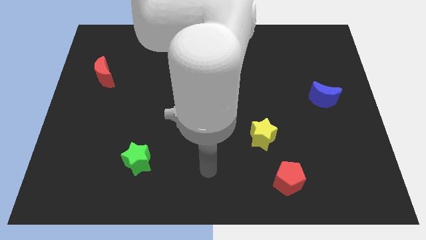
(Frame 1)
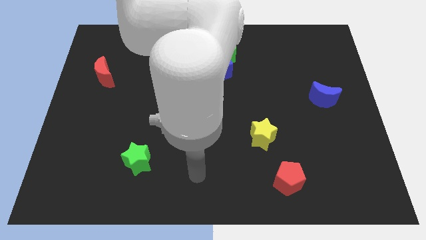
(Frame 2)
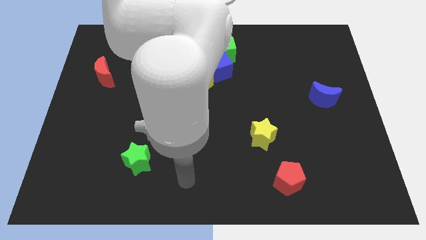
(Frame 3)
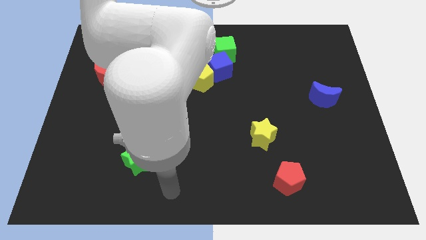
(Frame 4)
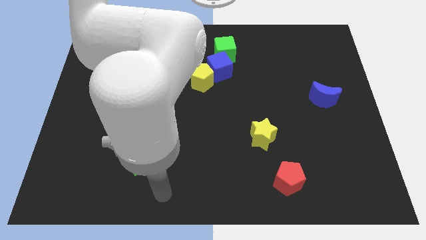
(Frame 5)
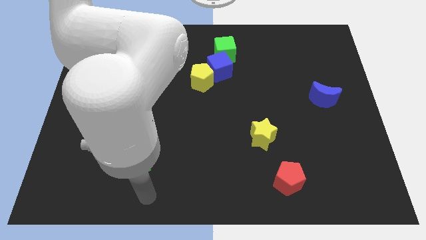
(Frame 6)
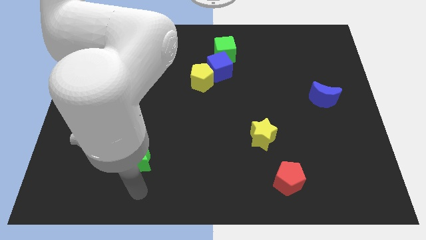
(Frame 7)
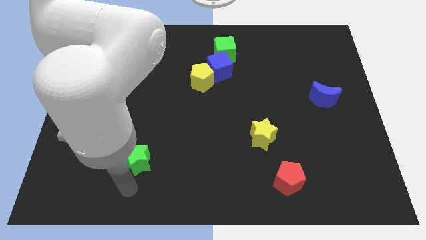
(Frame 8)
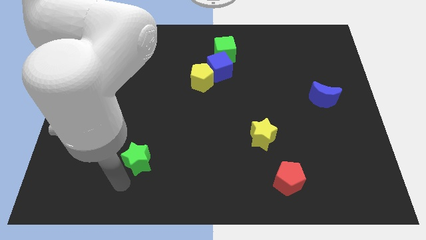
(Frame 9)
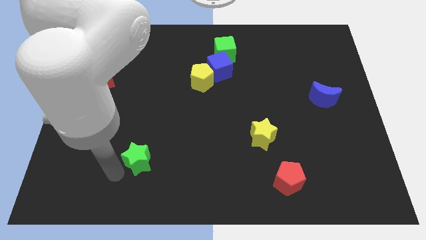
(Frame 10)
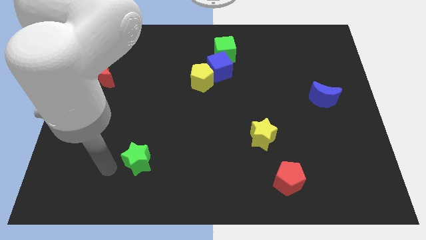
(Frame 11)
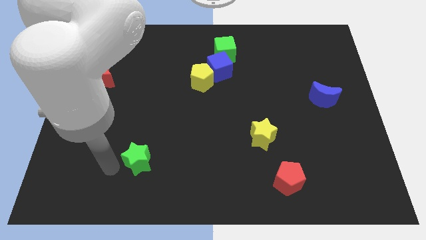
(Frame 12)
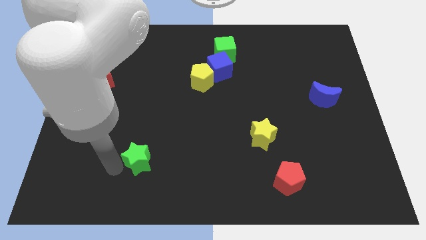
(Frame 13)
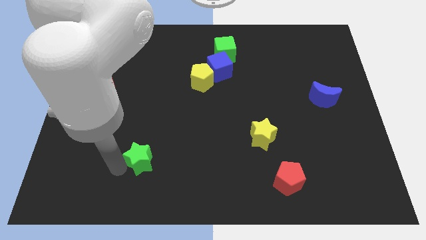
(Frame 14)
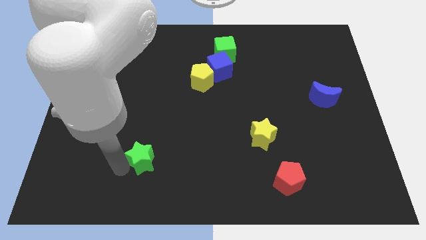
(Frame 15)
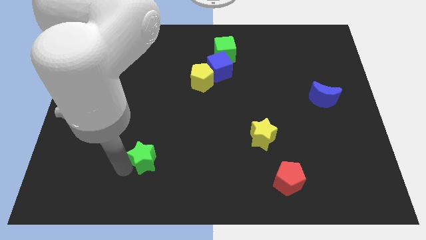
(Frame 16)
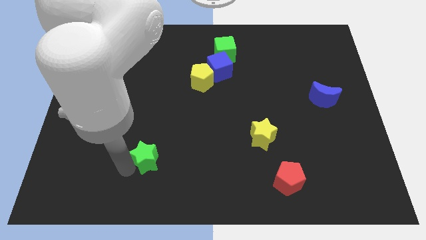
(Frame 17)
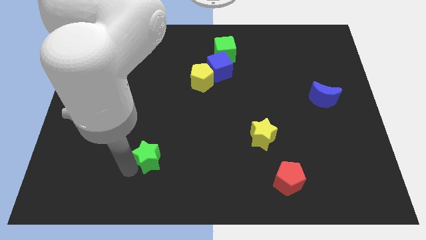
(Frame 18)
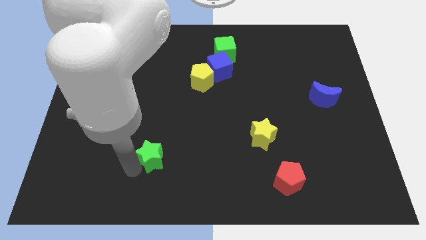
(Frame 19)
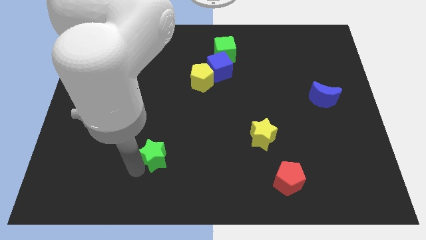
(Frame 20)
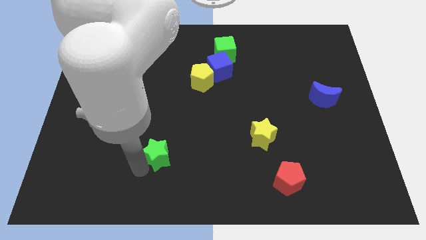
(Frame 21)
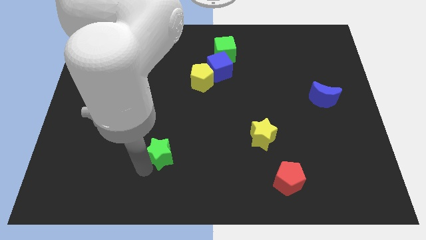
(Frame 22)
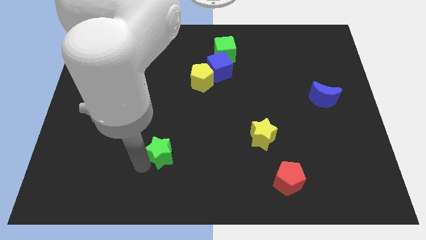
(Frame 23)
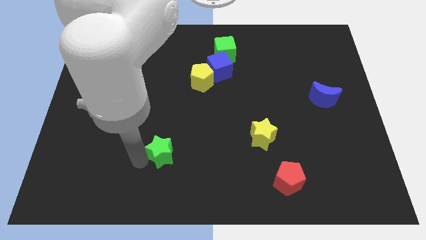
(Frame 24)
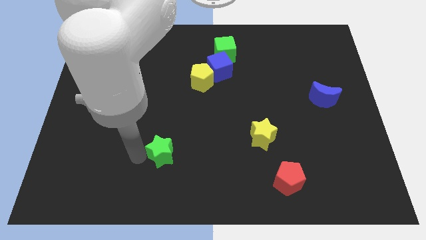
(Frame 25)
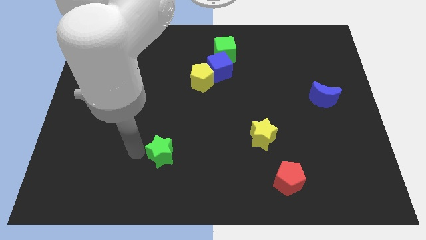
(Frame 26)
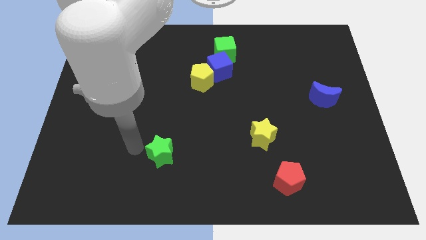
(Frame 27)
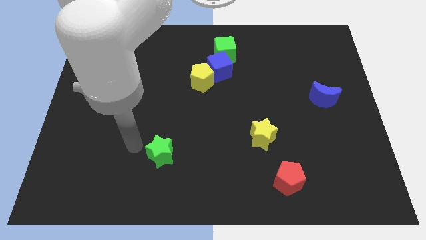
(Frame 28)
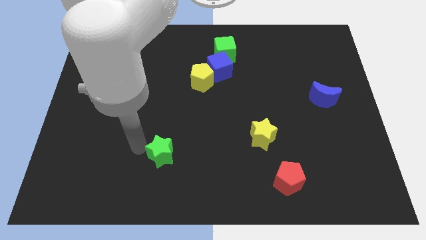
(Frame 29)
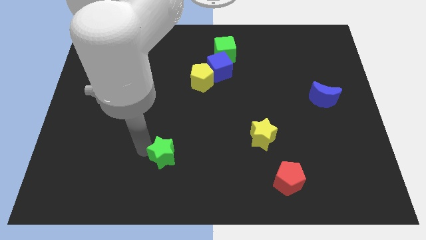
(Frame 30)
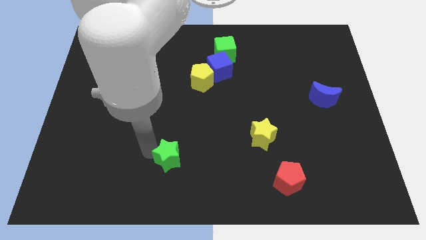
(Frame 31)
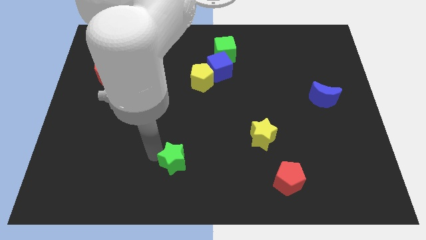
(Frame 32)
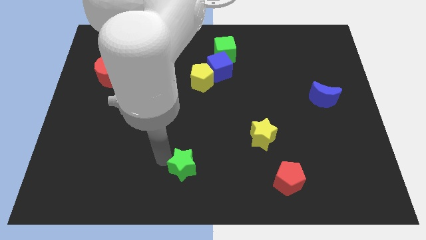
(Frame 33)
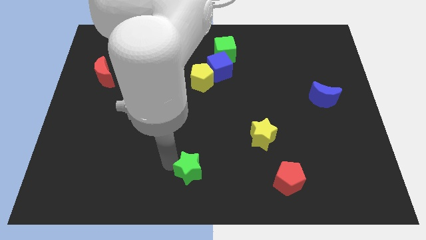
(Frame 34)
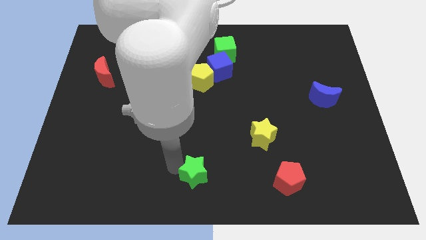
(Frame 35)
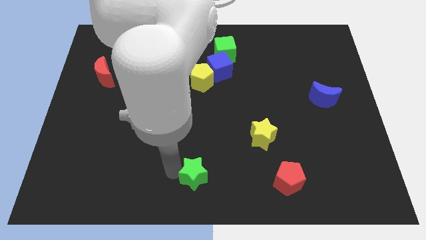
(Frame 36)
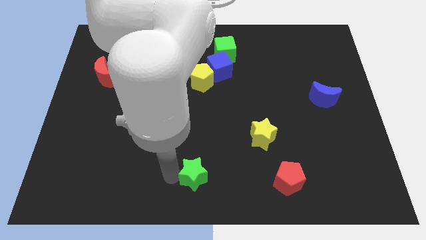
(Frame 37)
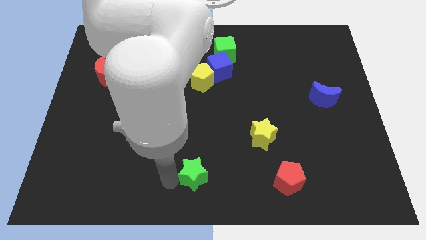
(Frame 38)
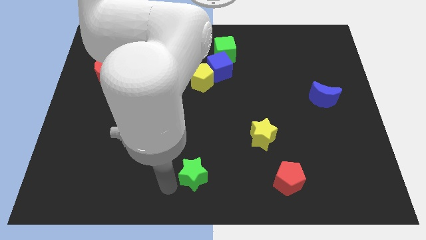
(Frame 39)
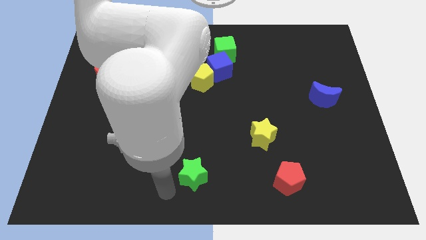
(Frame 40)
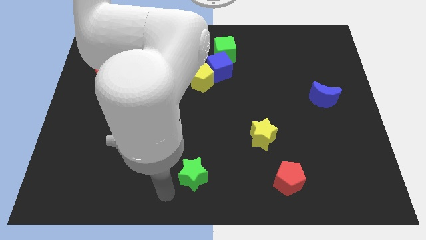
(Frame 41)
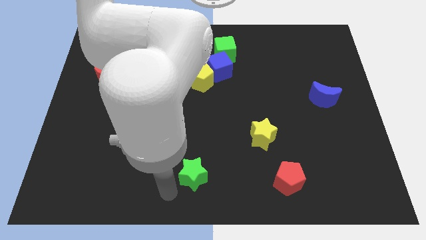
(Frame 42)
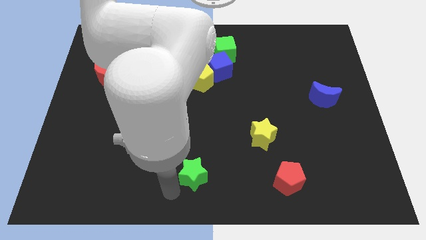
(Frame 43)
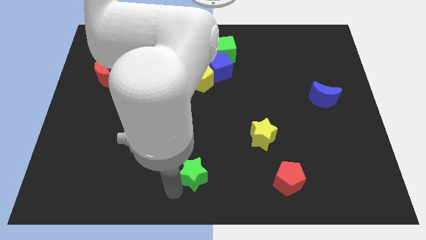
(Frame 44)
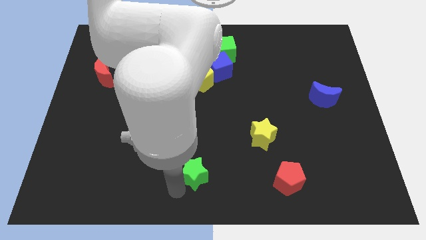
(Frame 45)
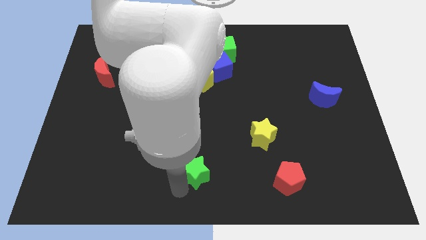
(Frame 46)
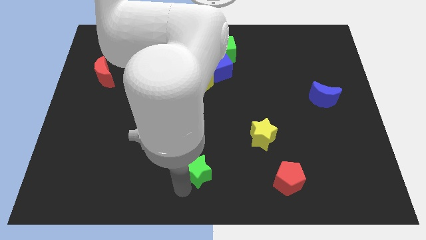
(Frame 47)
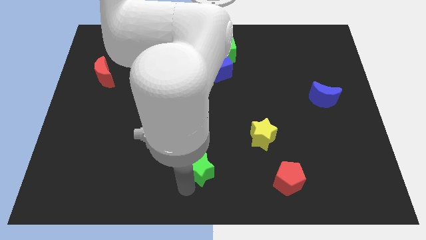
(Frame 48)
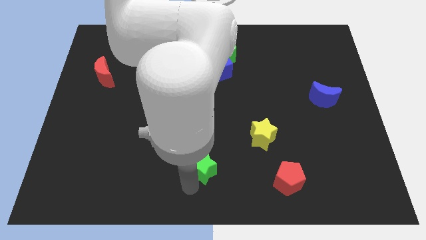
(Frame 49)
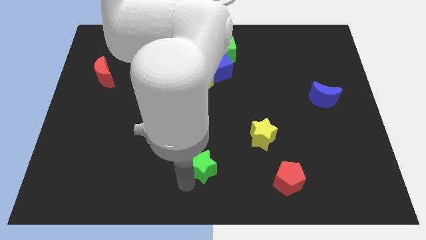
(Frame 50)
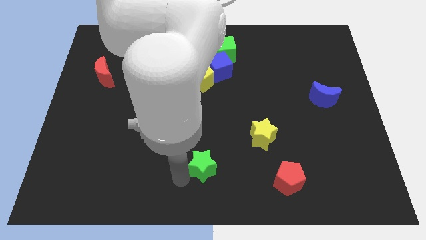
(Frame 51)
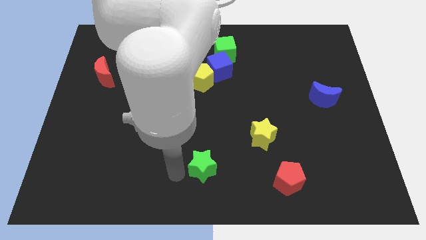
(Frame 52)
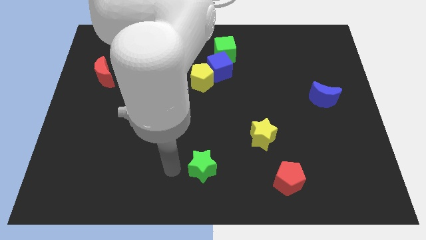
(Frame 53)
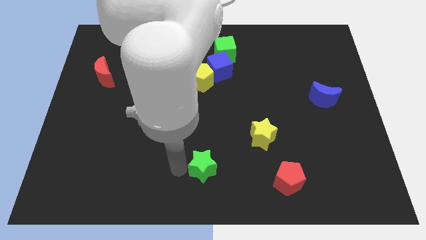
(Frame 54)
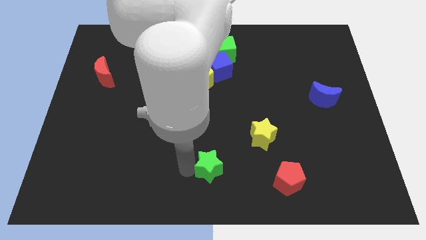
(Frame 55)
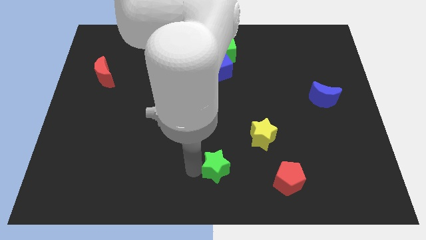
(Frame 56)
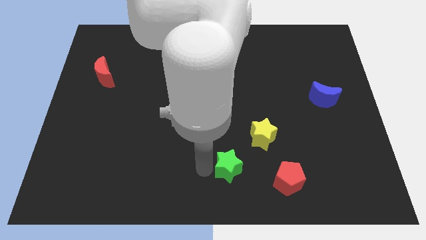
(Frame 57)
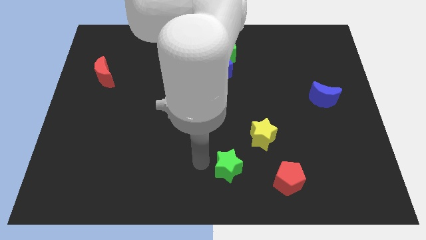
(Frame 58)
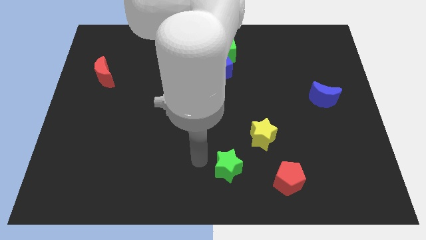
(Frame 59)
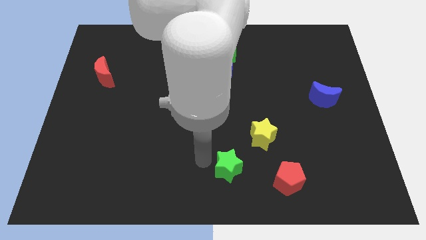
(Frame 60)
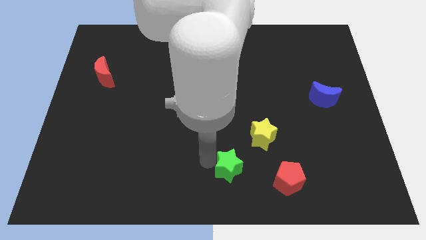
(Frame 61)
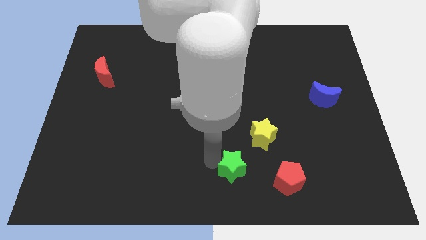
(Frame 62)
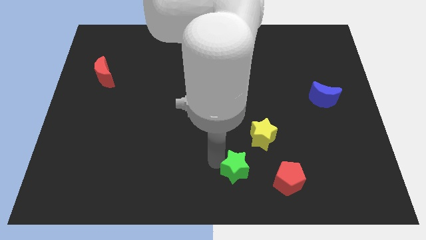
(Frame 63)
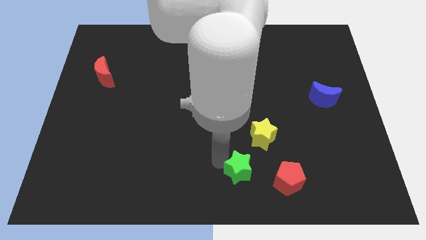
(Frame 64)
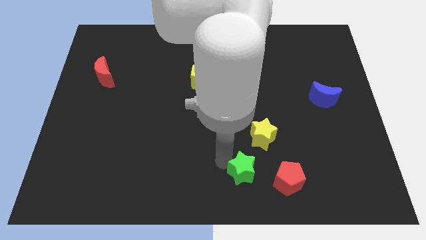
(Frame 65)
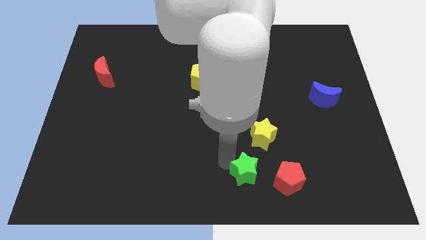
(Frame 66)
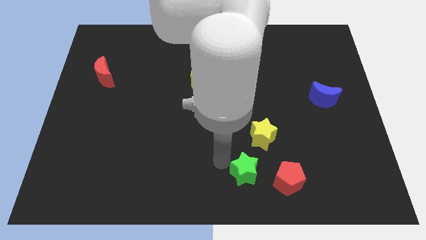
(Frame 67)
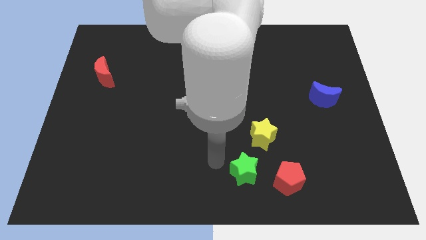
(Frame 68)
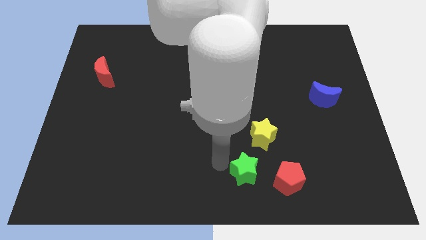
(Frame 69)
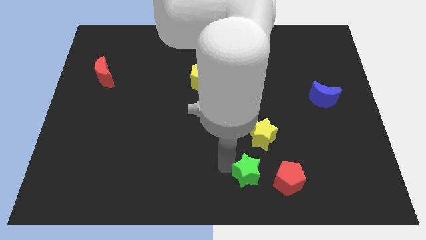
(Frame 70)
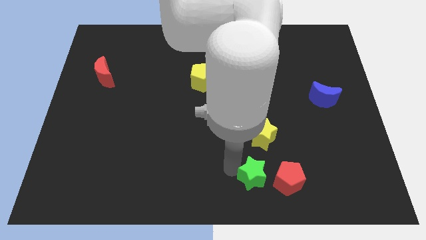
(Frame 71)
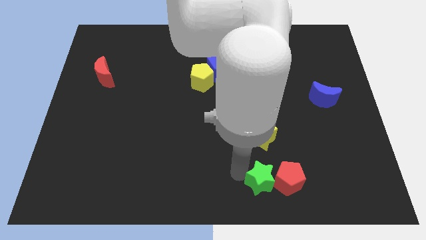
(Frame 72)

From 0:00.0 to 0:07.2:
slide the green star close to the red pentagon

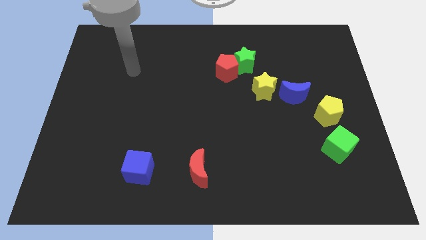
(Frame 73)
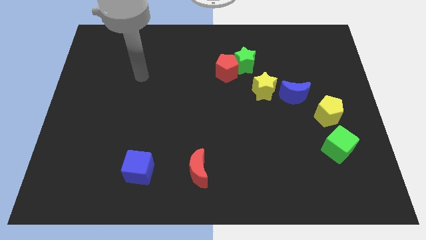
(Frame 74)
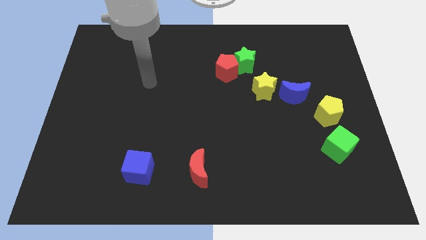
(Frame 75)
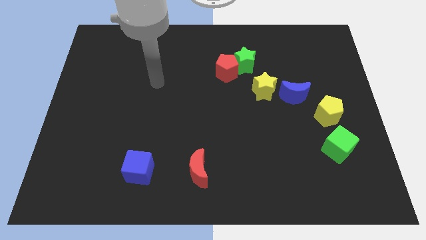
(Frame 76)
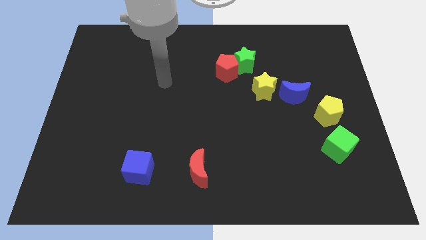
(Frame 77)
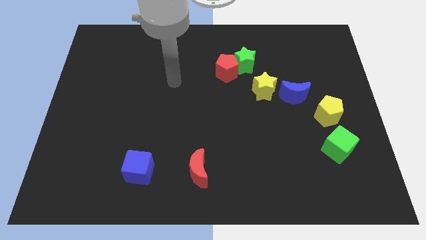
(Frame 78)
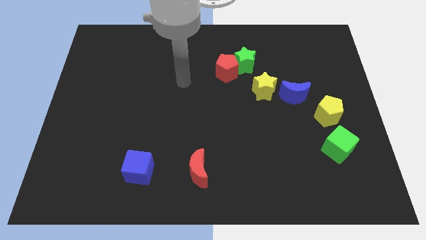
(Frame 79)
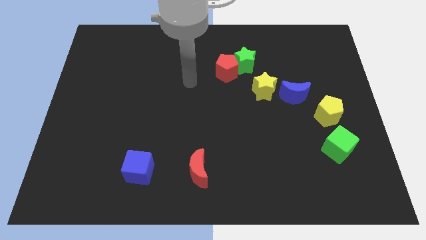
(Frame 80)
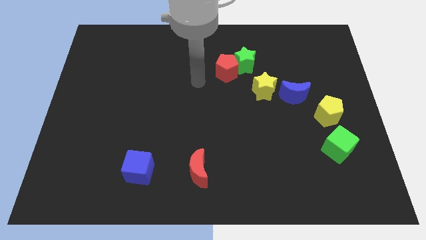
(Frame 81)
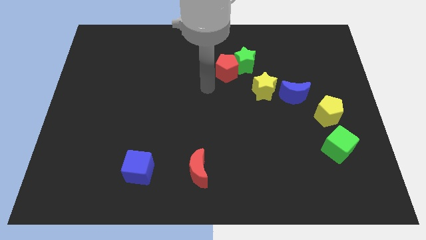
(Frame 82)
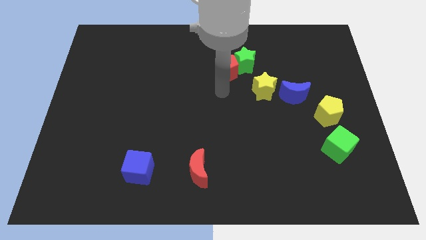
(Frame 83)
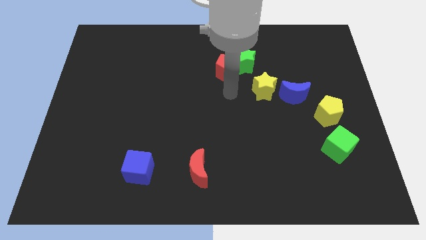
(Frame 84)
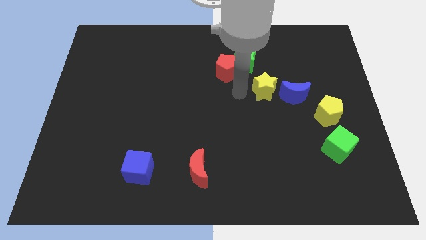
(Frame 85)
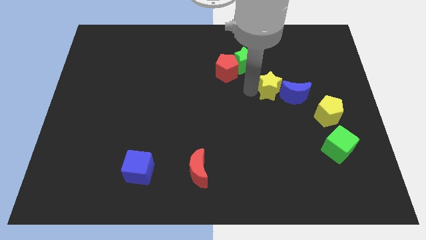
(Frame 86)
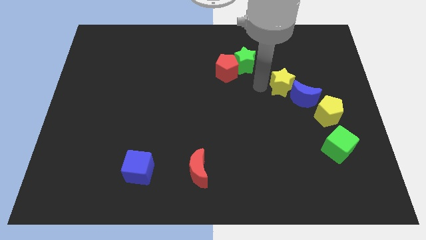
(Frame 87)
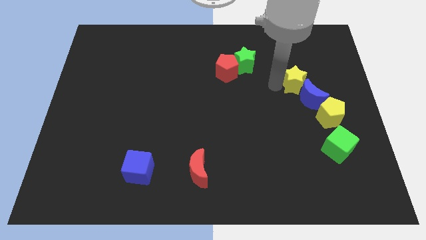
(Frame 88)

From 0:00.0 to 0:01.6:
push the blue moon next to the yellow pentagon
